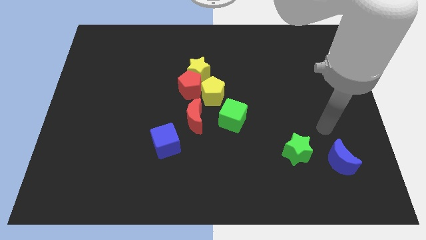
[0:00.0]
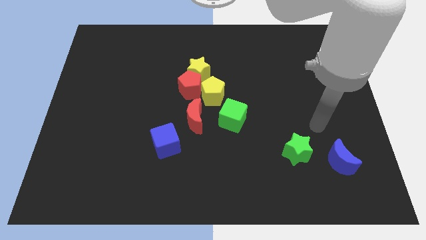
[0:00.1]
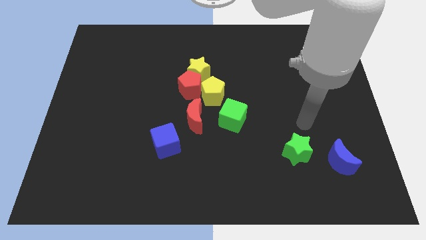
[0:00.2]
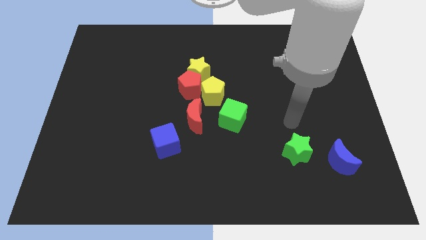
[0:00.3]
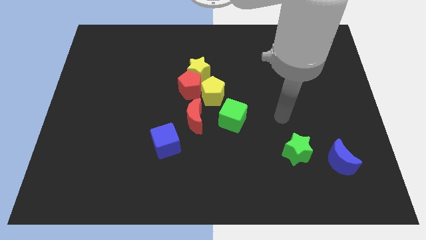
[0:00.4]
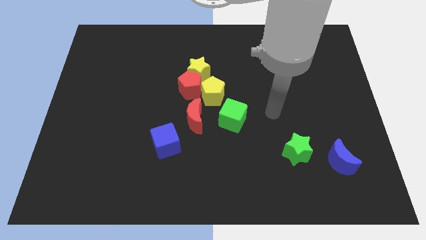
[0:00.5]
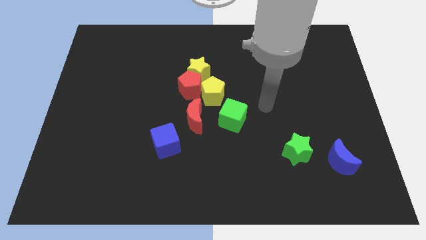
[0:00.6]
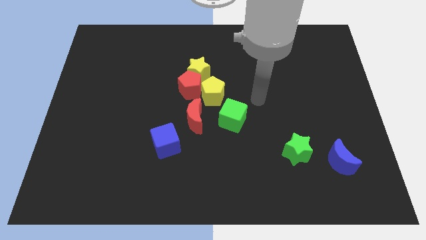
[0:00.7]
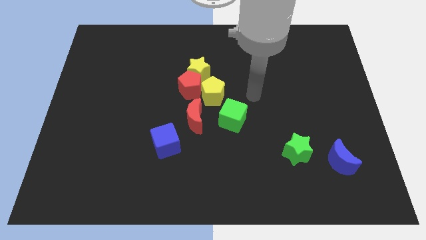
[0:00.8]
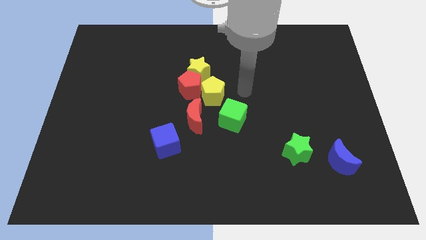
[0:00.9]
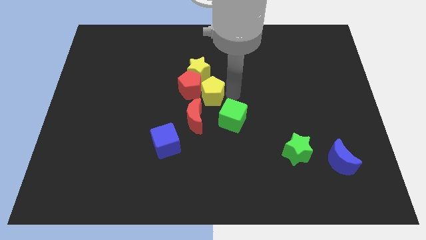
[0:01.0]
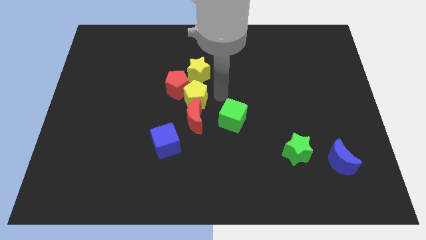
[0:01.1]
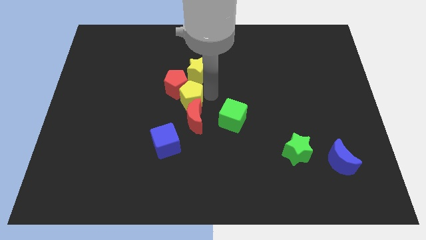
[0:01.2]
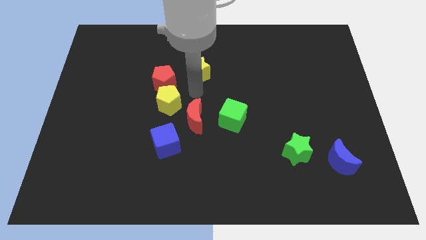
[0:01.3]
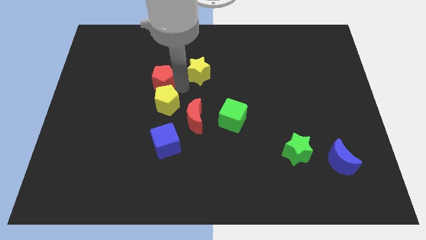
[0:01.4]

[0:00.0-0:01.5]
move the yellow star away from the red pentagon and yellow pentagon

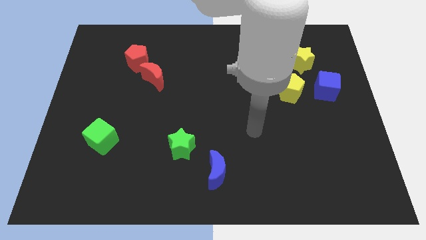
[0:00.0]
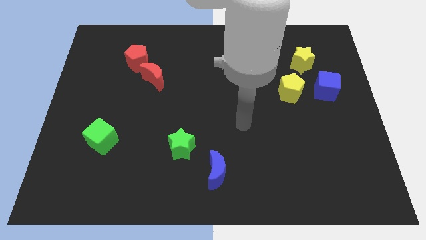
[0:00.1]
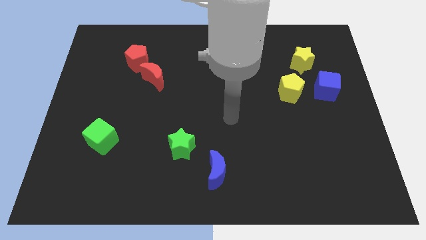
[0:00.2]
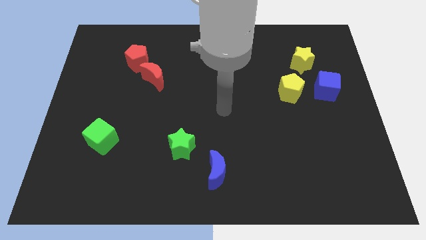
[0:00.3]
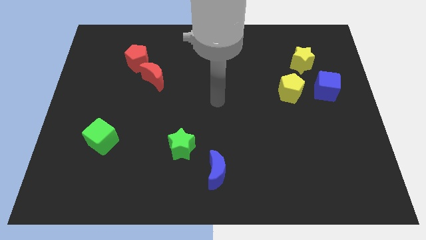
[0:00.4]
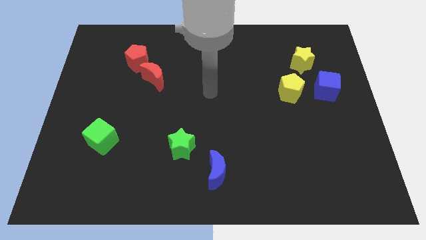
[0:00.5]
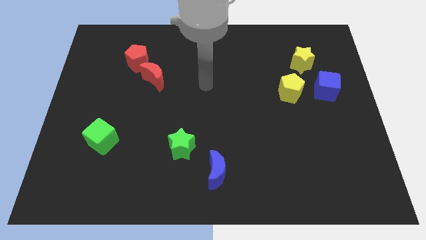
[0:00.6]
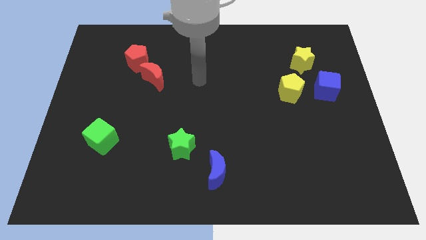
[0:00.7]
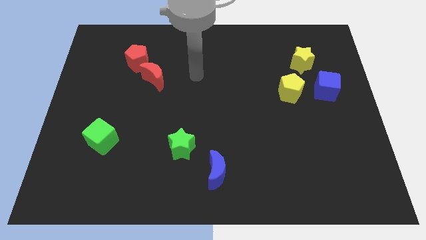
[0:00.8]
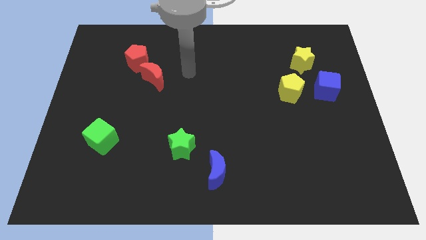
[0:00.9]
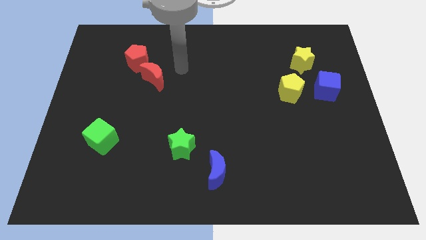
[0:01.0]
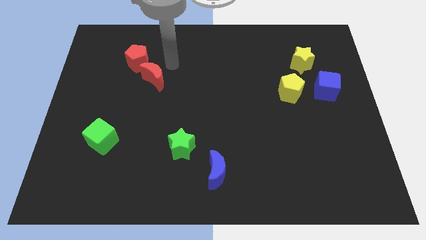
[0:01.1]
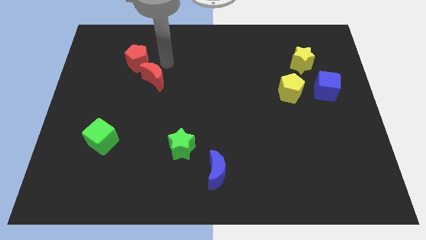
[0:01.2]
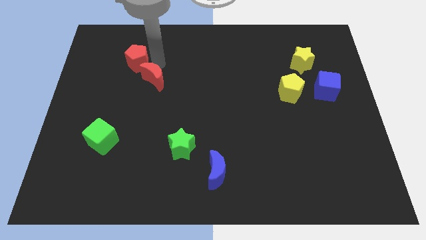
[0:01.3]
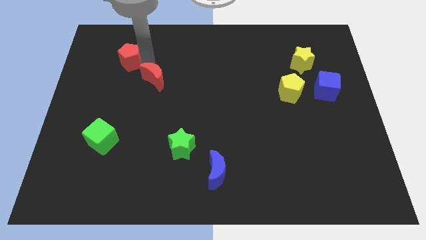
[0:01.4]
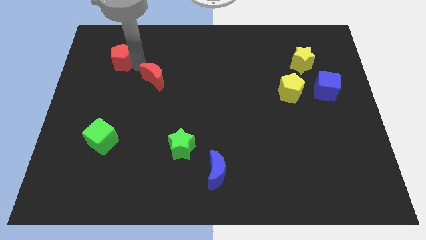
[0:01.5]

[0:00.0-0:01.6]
separate the red moon from the red pentagon

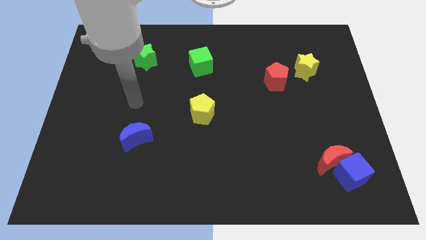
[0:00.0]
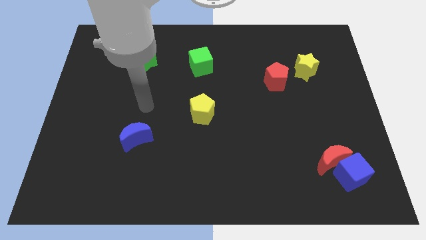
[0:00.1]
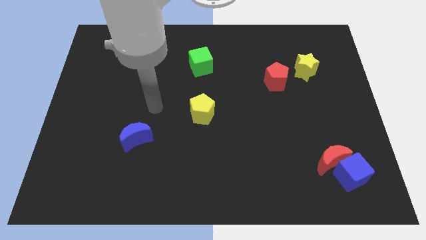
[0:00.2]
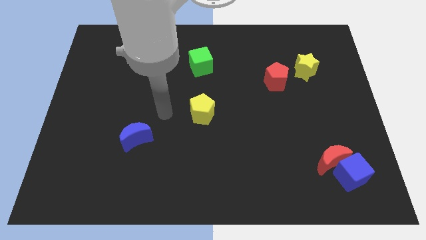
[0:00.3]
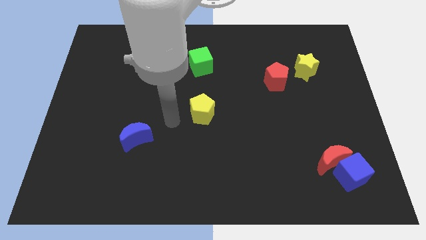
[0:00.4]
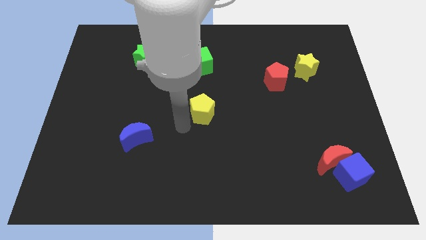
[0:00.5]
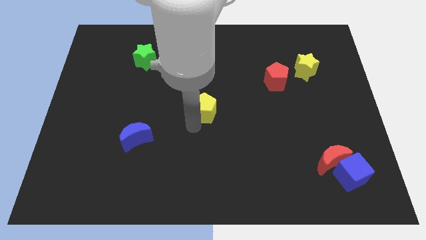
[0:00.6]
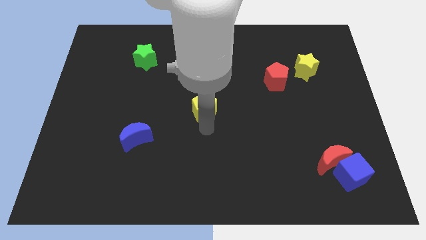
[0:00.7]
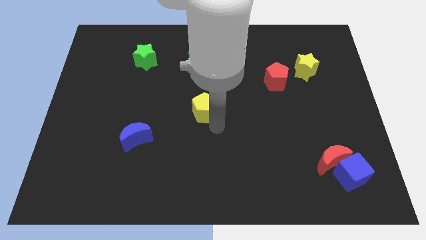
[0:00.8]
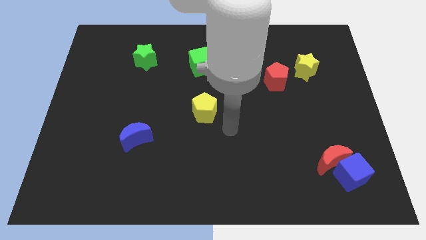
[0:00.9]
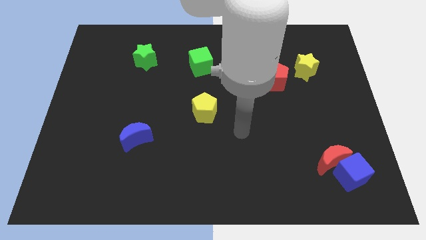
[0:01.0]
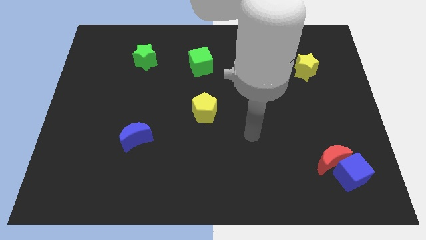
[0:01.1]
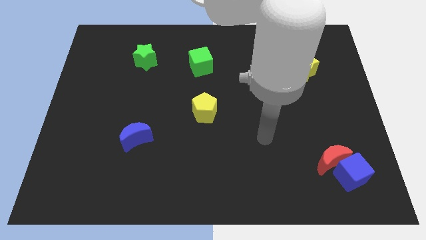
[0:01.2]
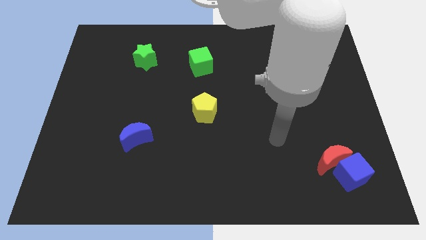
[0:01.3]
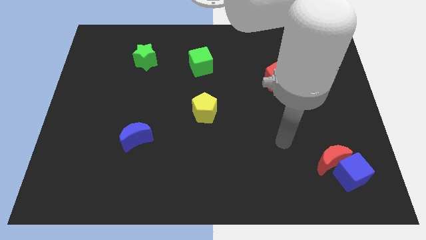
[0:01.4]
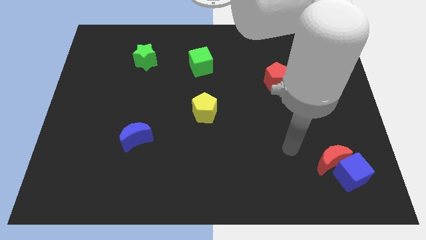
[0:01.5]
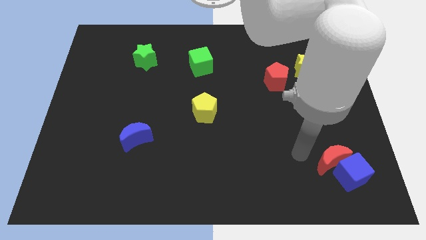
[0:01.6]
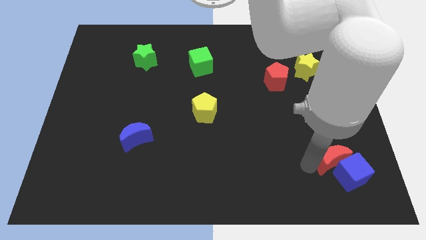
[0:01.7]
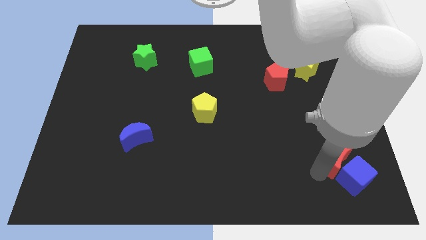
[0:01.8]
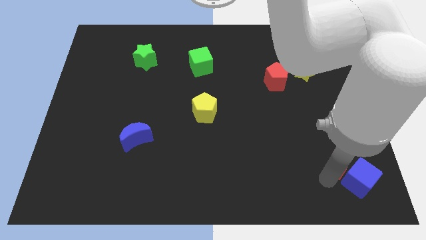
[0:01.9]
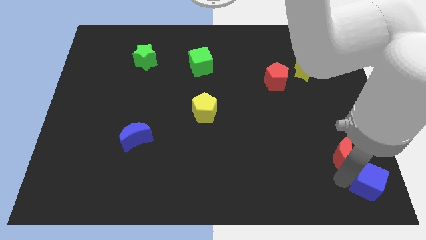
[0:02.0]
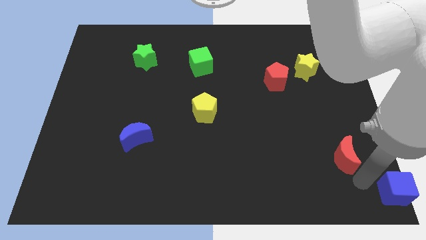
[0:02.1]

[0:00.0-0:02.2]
pull the red moon apart from the blue cube

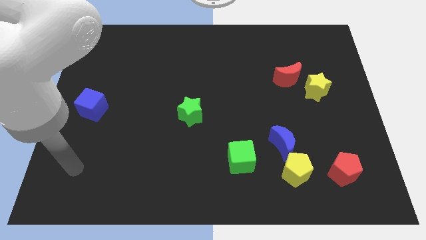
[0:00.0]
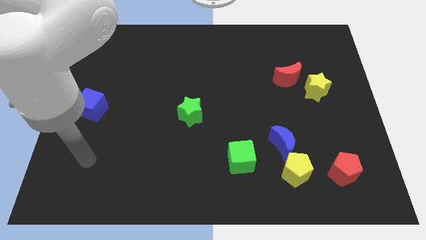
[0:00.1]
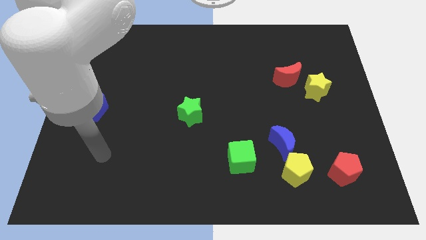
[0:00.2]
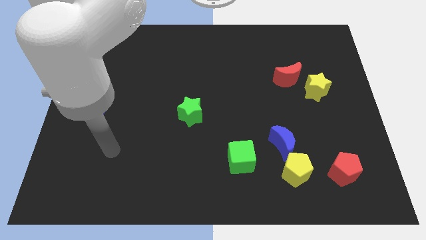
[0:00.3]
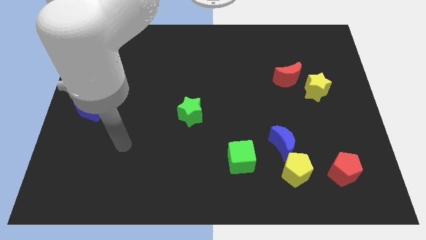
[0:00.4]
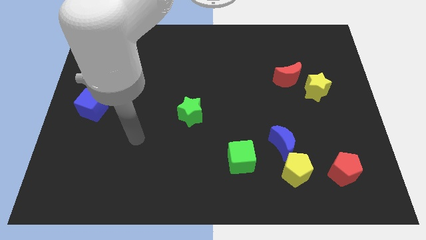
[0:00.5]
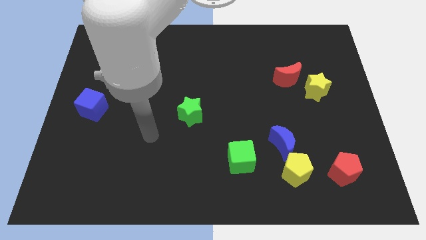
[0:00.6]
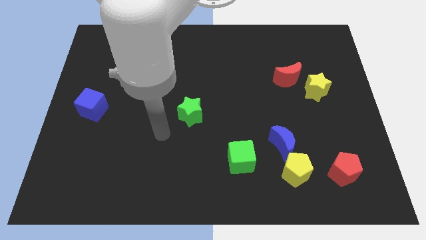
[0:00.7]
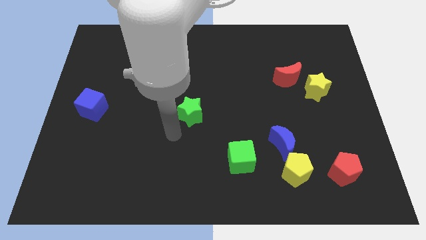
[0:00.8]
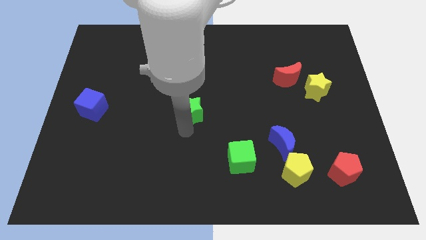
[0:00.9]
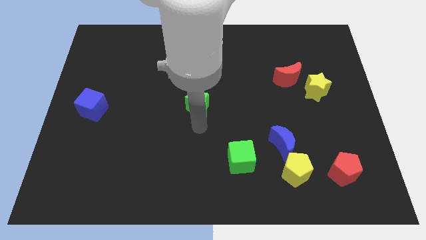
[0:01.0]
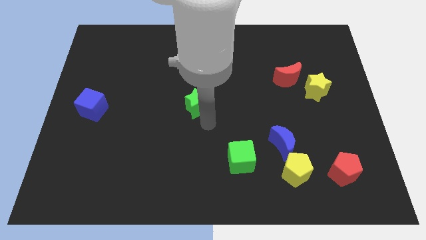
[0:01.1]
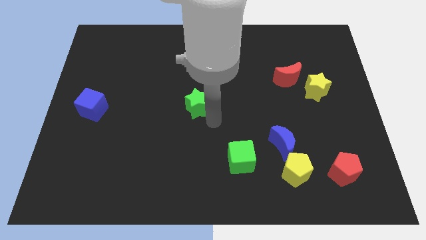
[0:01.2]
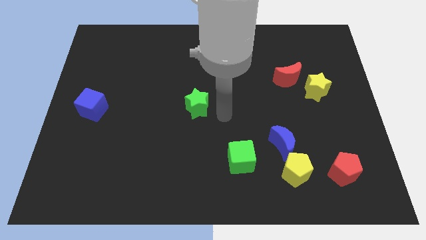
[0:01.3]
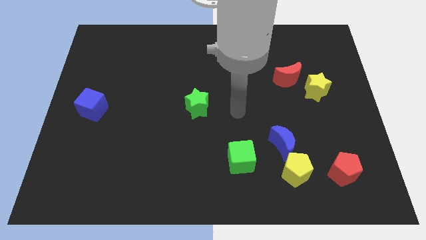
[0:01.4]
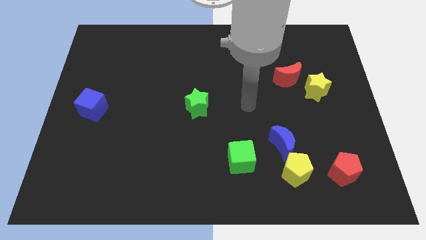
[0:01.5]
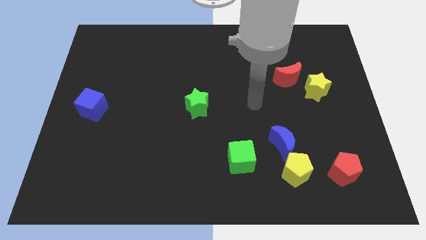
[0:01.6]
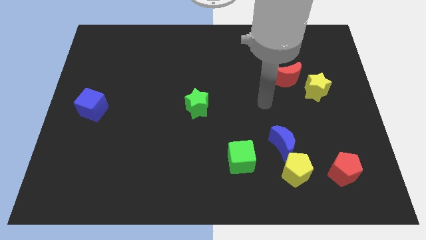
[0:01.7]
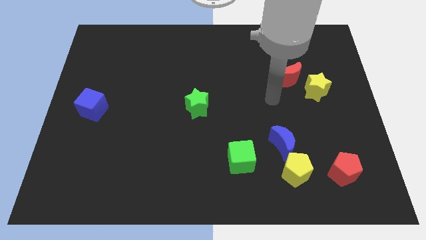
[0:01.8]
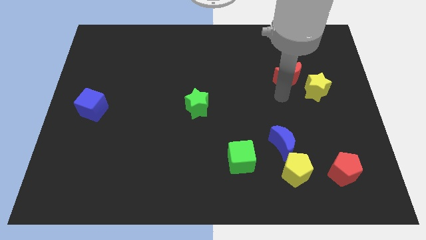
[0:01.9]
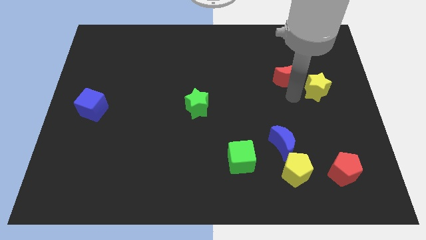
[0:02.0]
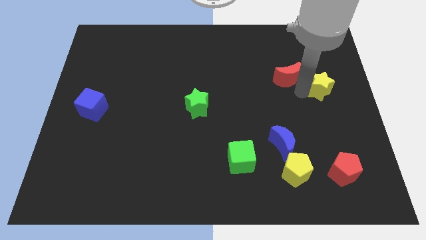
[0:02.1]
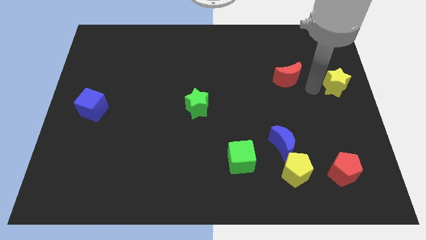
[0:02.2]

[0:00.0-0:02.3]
pull the red moon apart from the yellow star

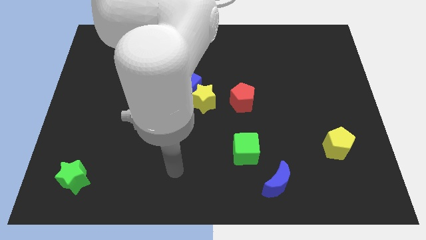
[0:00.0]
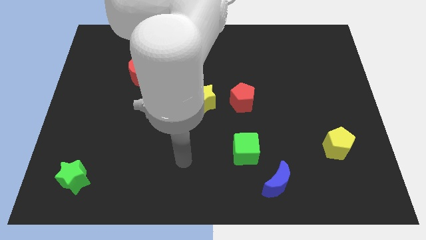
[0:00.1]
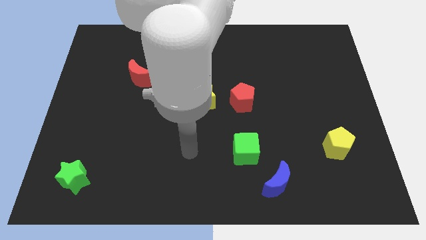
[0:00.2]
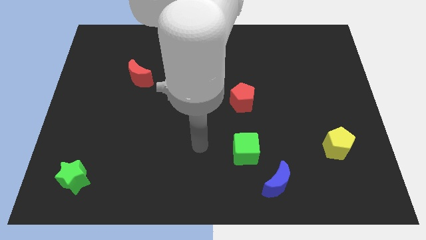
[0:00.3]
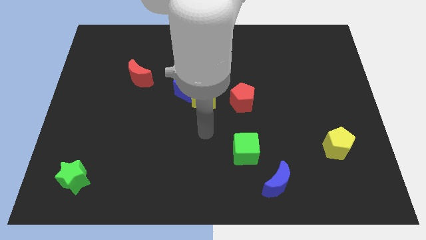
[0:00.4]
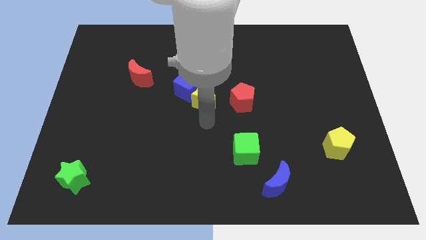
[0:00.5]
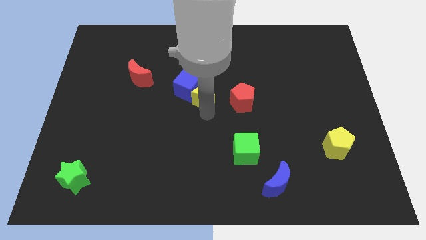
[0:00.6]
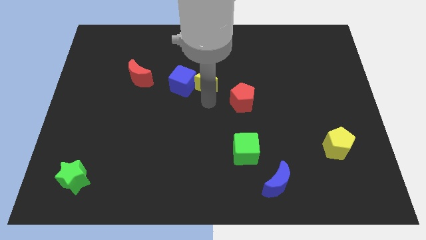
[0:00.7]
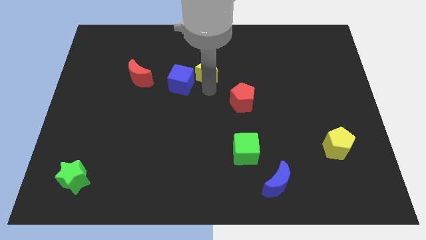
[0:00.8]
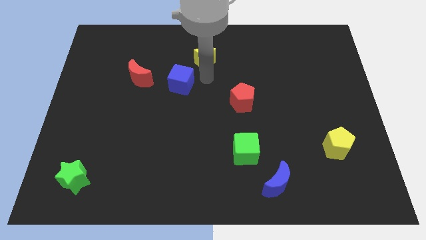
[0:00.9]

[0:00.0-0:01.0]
separate the blue cube from the yellow star

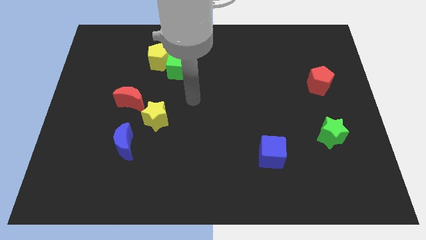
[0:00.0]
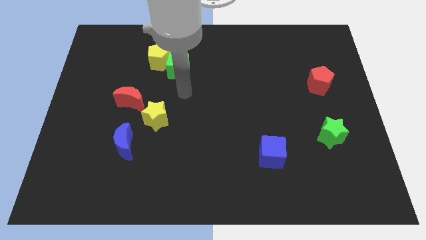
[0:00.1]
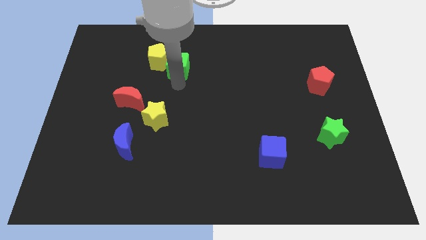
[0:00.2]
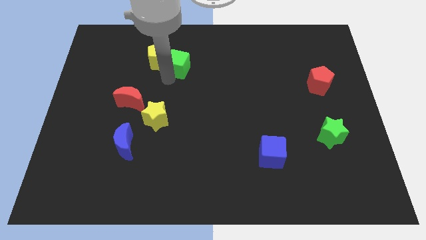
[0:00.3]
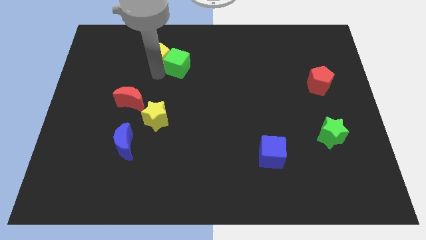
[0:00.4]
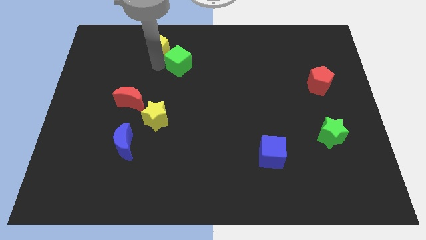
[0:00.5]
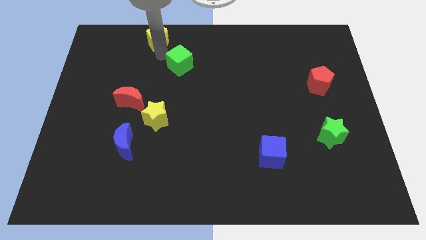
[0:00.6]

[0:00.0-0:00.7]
pull the green cube apart from the yellow pentagon
